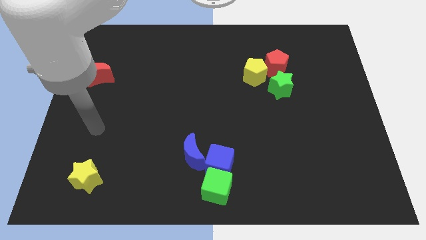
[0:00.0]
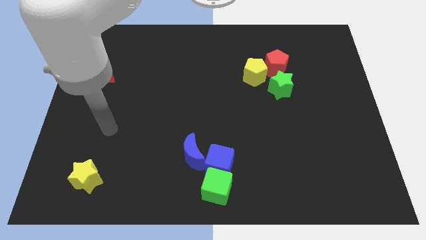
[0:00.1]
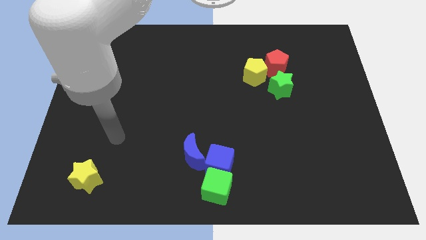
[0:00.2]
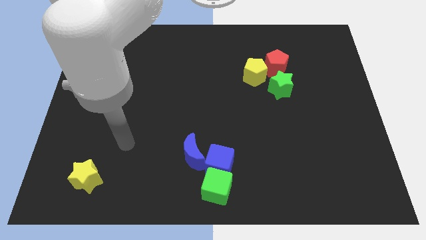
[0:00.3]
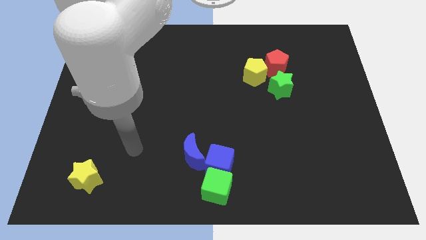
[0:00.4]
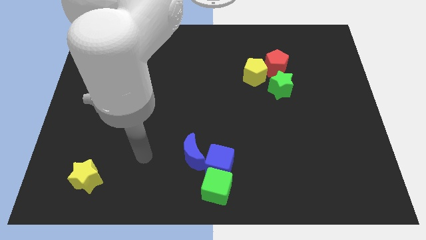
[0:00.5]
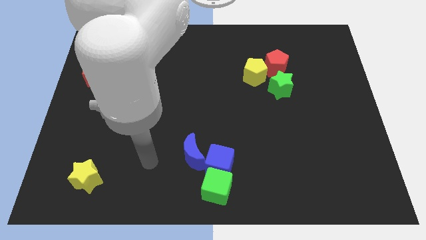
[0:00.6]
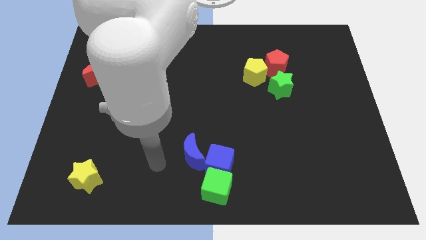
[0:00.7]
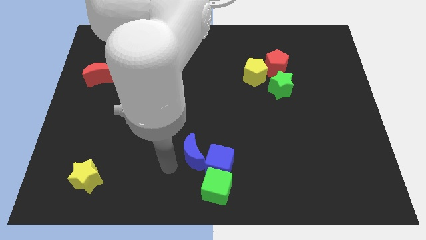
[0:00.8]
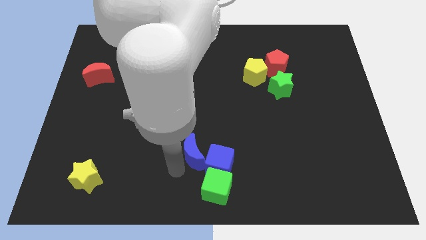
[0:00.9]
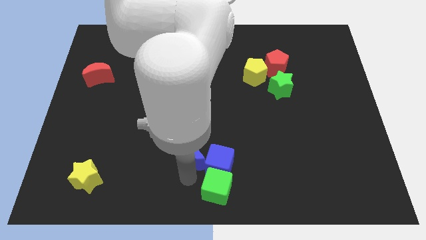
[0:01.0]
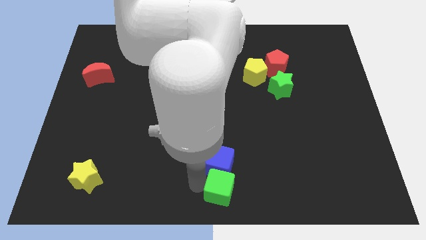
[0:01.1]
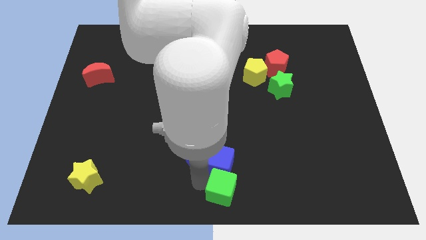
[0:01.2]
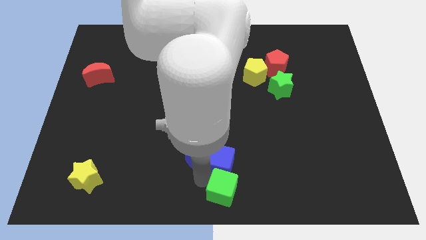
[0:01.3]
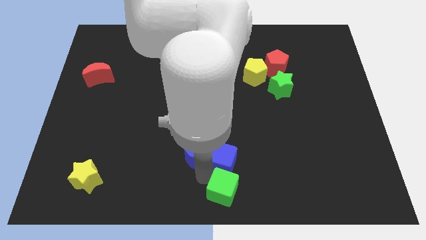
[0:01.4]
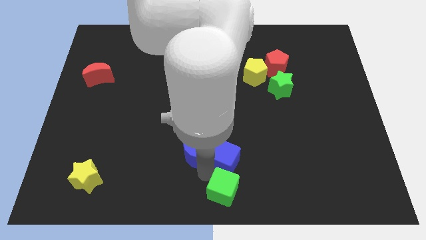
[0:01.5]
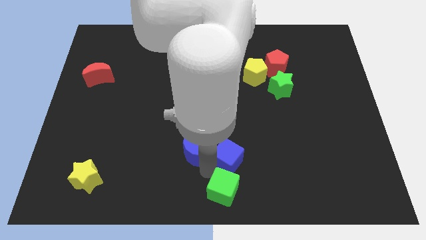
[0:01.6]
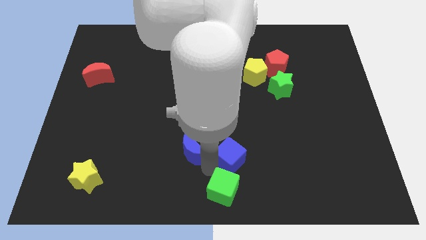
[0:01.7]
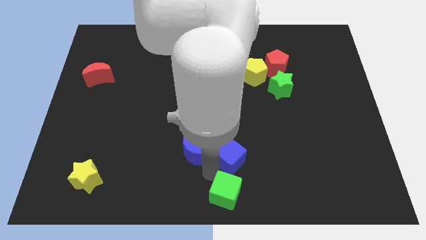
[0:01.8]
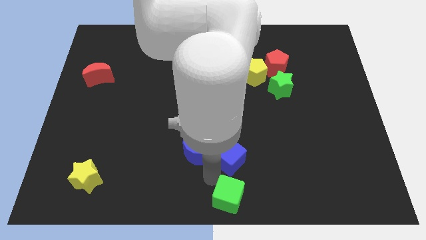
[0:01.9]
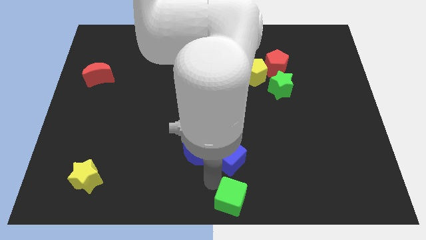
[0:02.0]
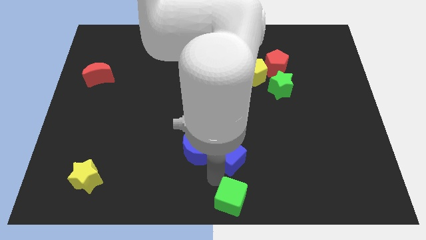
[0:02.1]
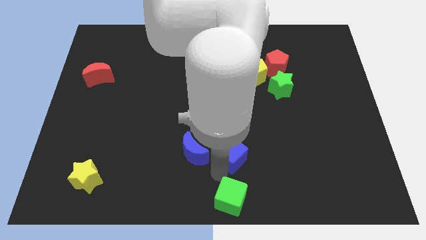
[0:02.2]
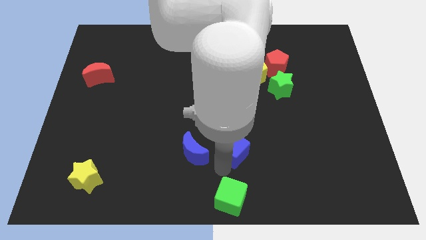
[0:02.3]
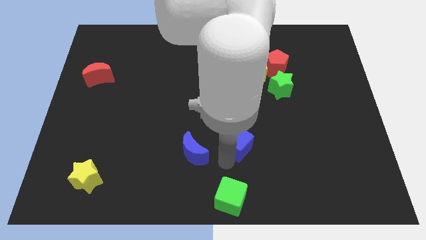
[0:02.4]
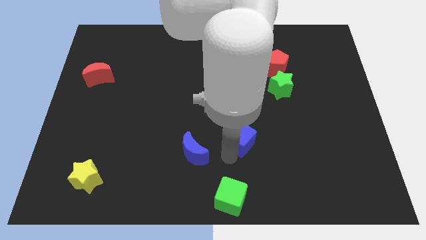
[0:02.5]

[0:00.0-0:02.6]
pull the blue cube apart from the green cube and blue moon

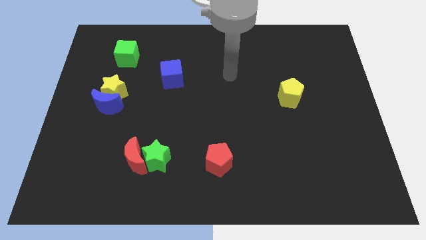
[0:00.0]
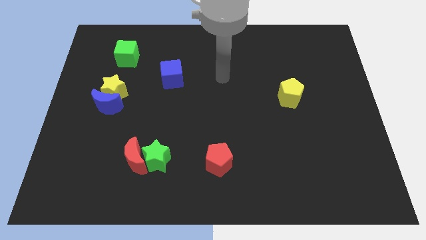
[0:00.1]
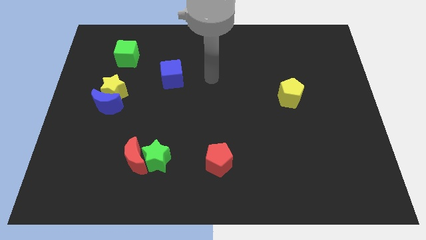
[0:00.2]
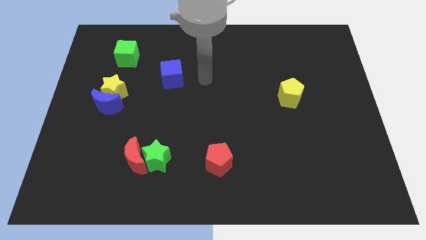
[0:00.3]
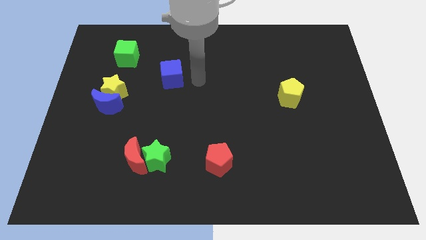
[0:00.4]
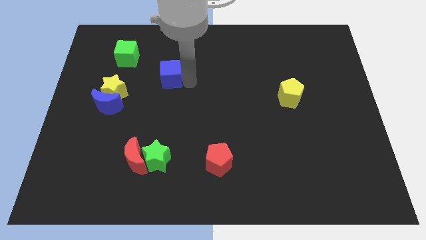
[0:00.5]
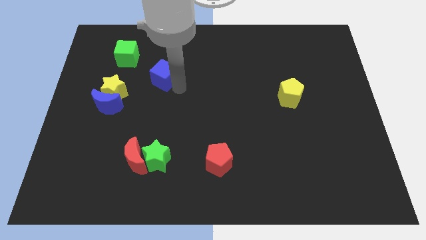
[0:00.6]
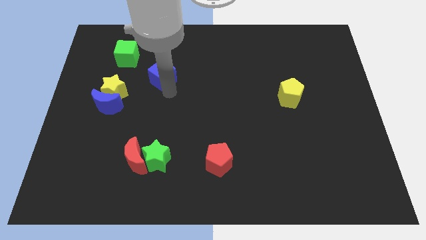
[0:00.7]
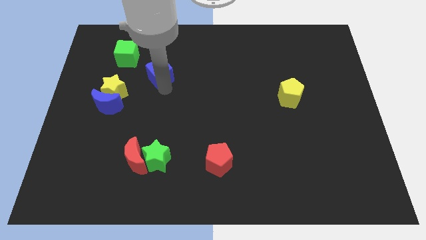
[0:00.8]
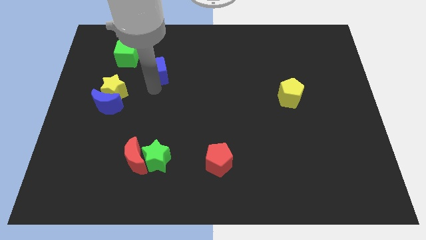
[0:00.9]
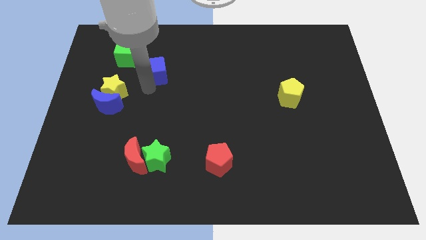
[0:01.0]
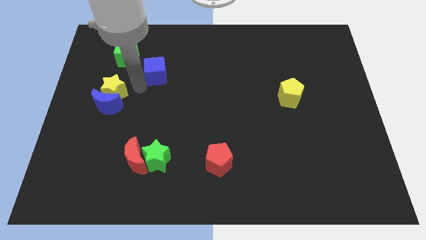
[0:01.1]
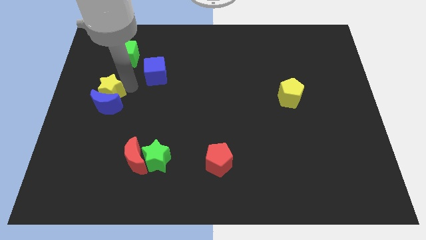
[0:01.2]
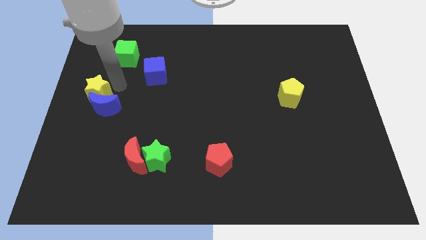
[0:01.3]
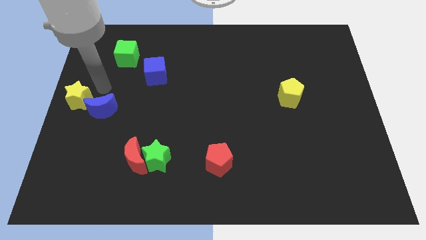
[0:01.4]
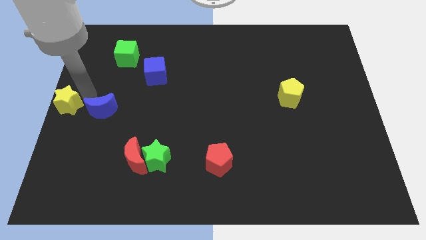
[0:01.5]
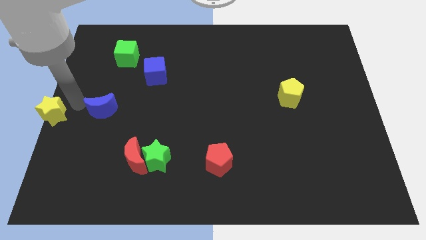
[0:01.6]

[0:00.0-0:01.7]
separate the blue moon from the yellow star

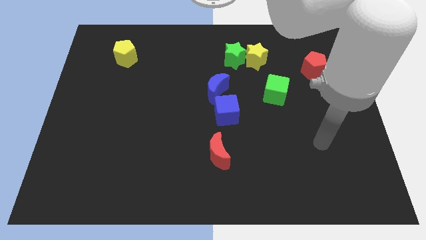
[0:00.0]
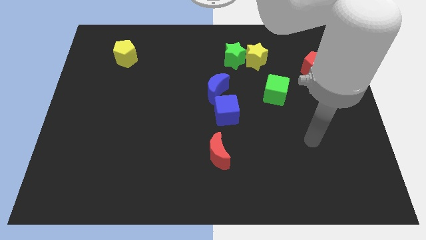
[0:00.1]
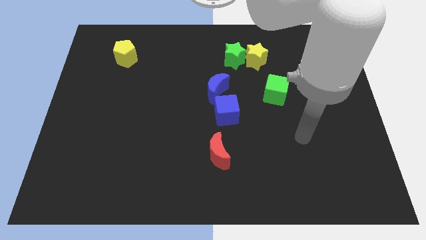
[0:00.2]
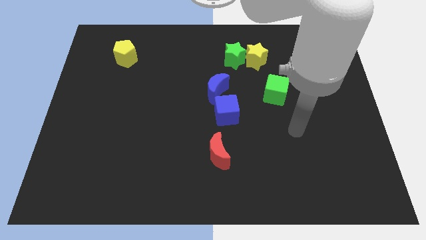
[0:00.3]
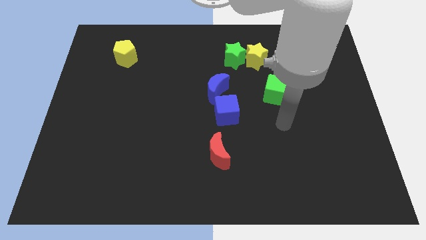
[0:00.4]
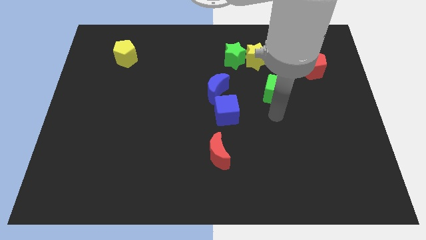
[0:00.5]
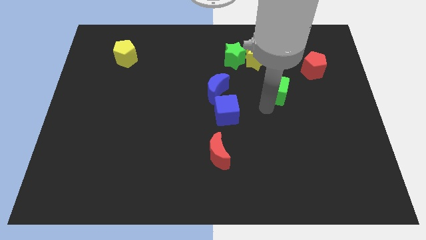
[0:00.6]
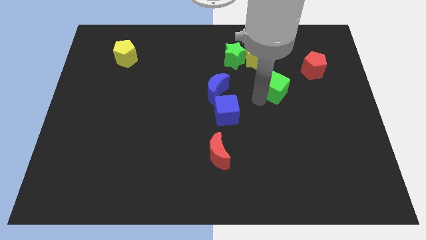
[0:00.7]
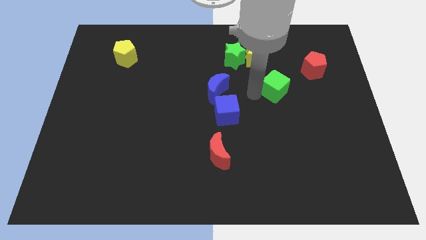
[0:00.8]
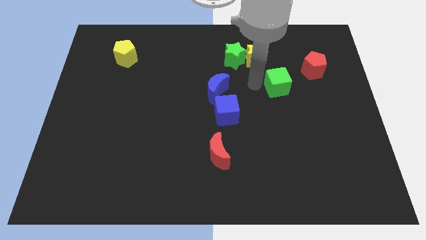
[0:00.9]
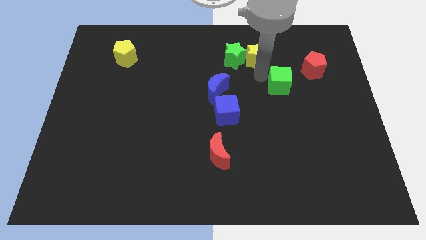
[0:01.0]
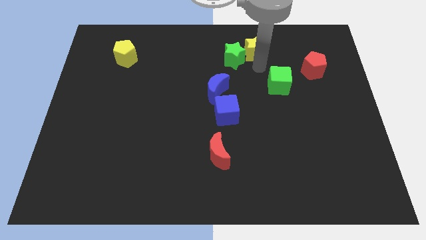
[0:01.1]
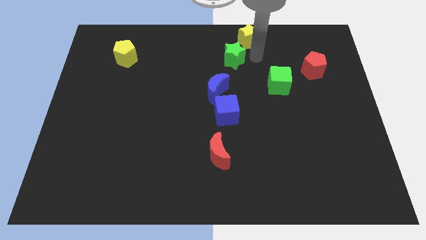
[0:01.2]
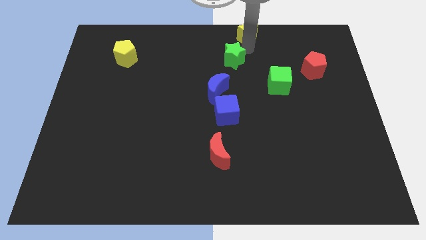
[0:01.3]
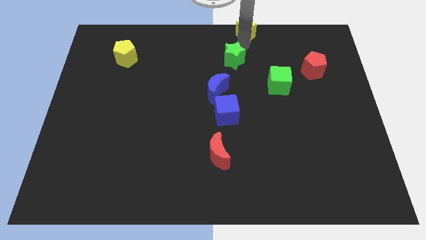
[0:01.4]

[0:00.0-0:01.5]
move the green star away from the yellow star

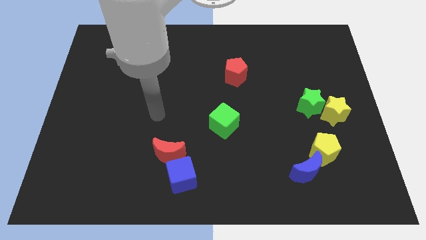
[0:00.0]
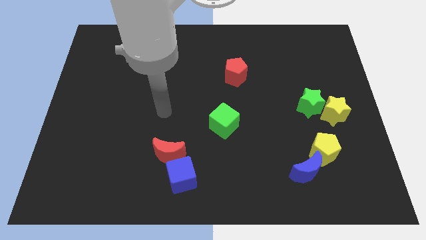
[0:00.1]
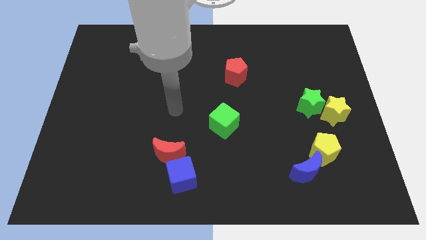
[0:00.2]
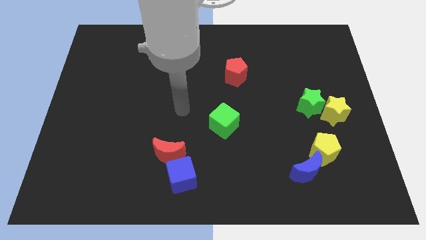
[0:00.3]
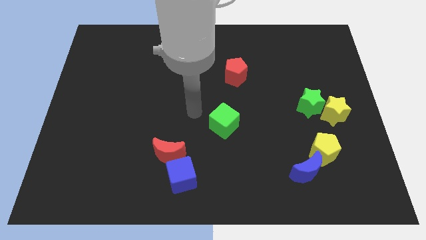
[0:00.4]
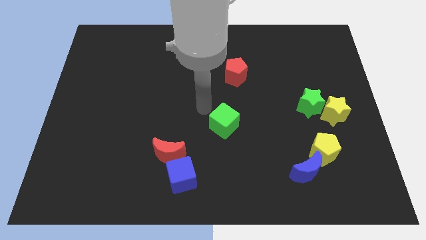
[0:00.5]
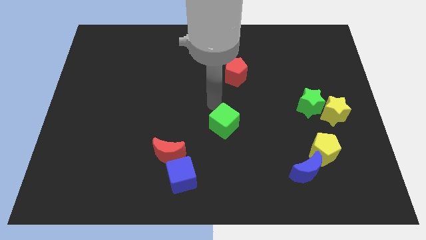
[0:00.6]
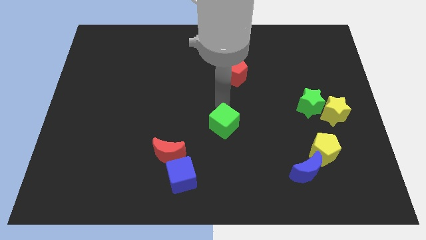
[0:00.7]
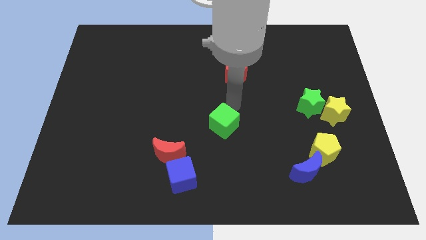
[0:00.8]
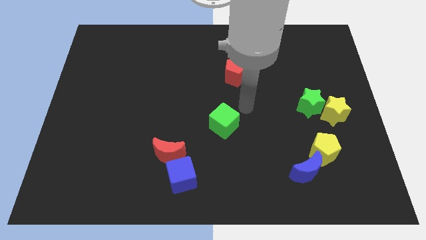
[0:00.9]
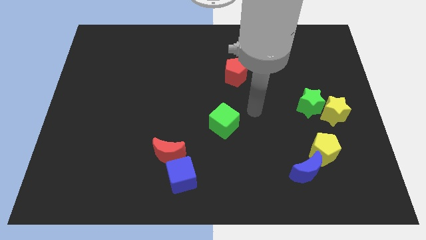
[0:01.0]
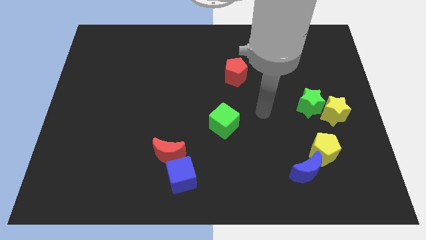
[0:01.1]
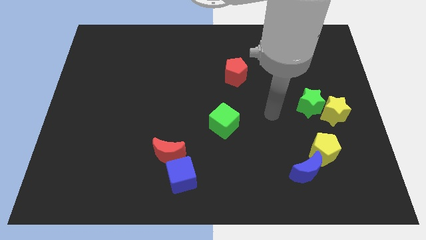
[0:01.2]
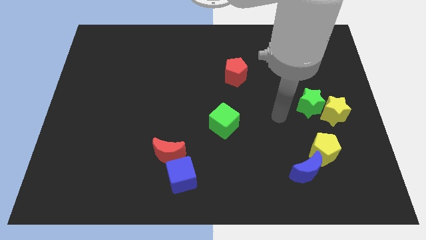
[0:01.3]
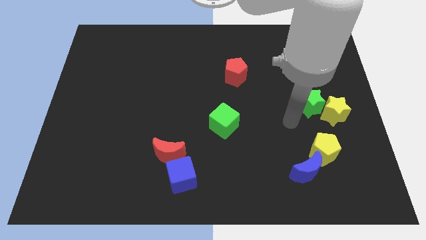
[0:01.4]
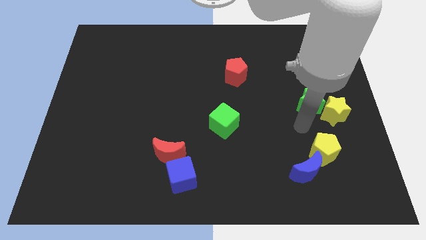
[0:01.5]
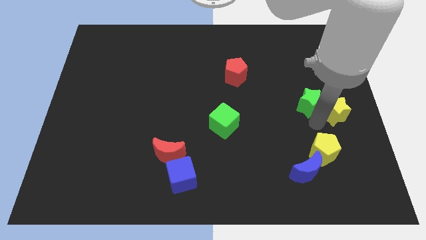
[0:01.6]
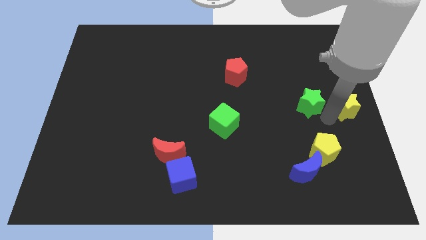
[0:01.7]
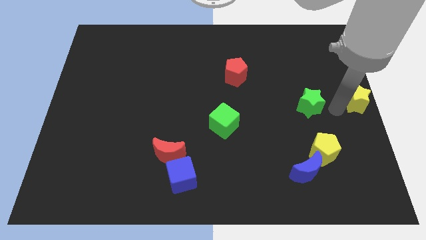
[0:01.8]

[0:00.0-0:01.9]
pull the green star apart from the yellow star

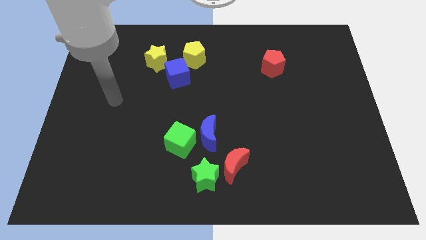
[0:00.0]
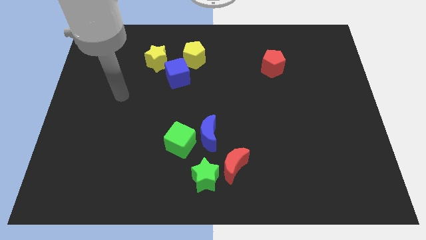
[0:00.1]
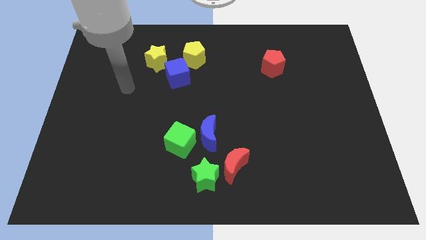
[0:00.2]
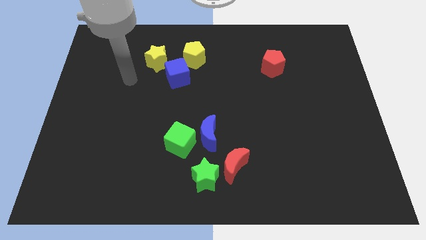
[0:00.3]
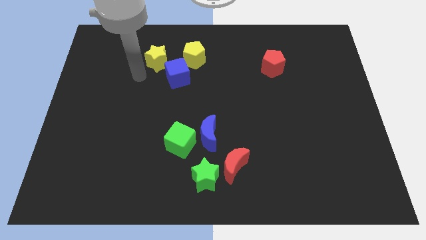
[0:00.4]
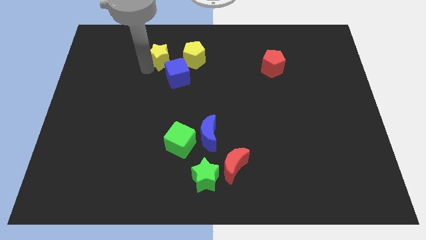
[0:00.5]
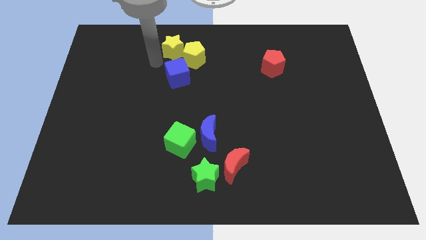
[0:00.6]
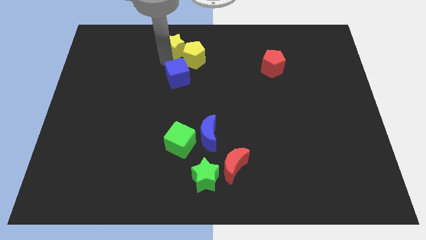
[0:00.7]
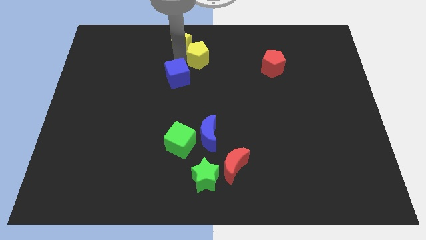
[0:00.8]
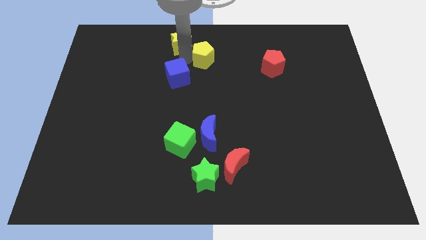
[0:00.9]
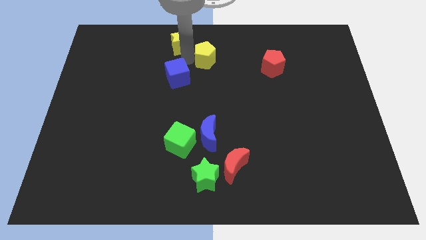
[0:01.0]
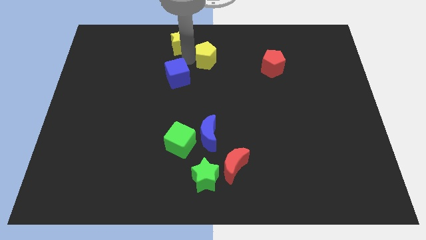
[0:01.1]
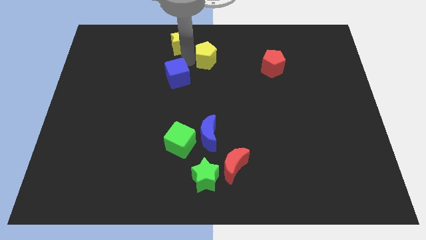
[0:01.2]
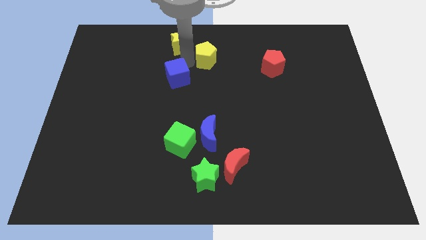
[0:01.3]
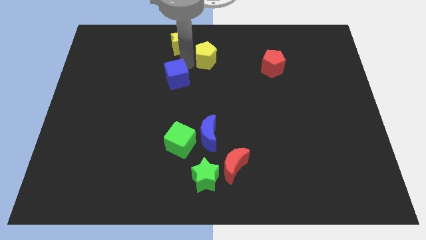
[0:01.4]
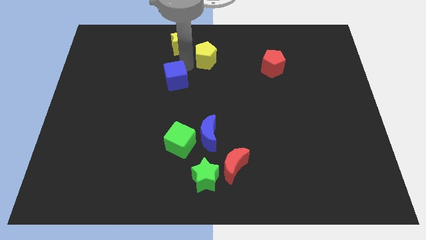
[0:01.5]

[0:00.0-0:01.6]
pull the blue cube apart from the yellow pentagon and yellow star

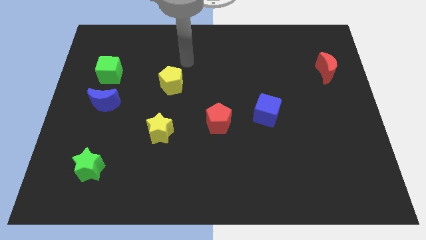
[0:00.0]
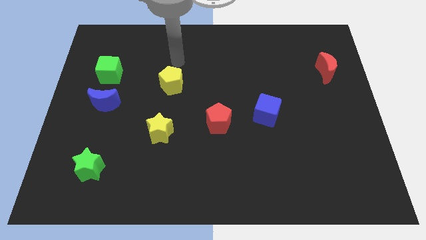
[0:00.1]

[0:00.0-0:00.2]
move the blue moon away from the green cube
